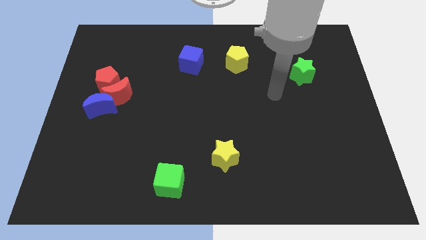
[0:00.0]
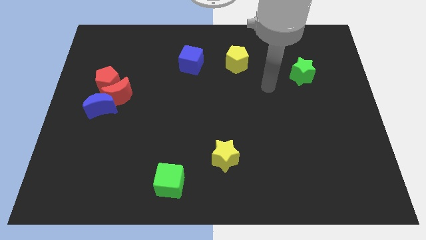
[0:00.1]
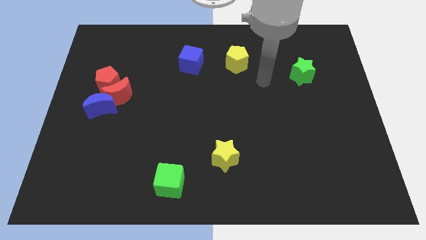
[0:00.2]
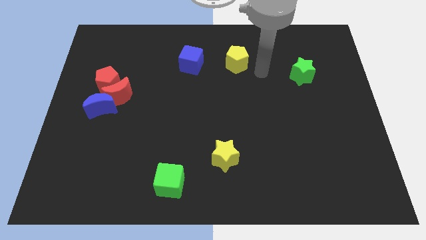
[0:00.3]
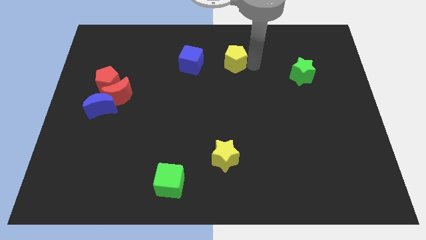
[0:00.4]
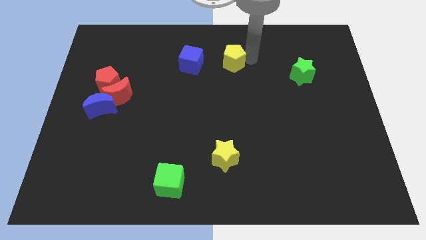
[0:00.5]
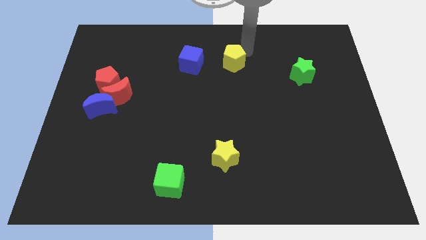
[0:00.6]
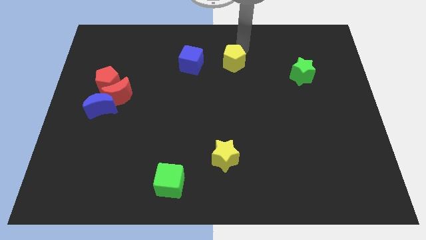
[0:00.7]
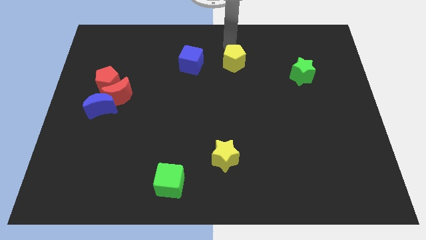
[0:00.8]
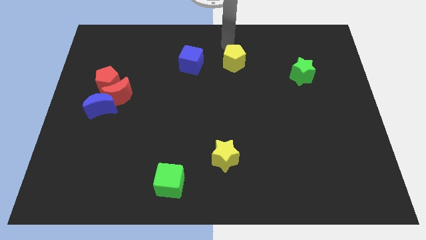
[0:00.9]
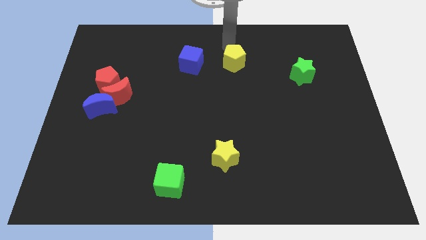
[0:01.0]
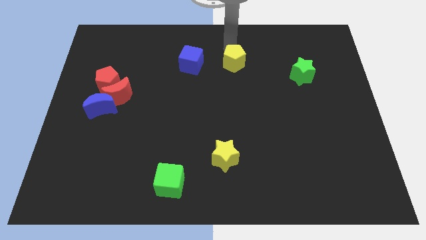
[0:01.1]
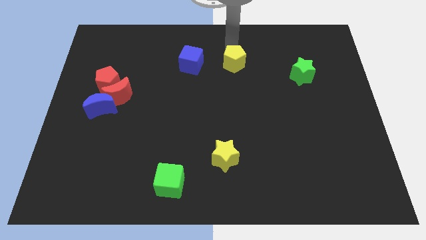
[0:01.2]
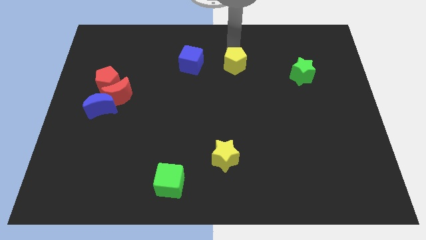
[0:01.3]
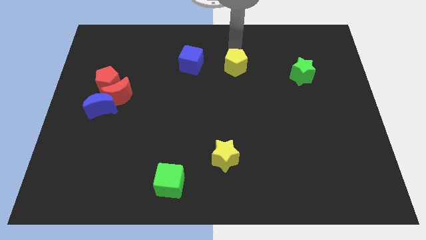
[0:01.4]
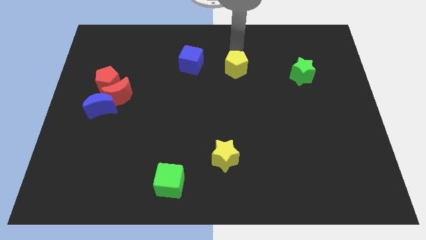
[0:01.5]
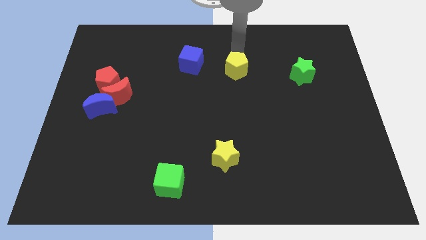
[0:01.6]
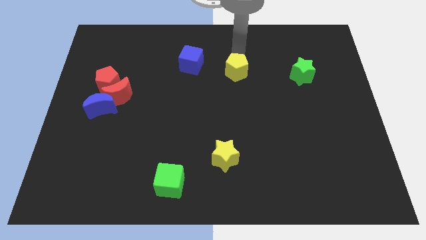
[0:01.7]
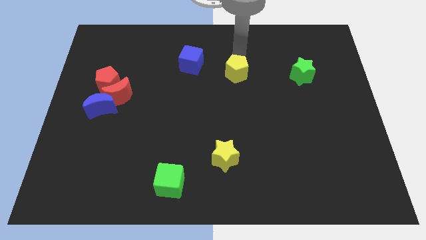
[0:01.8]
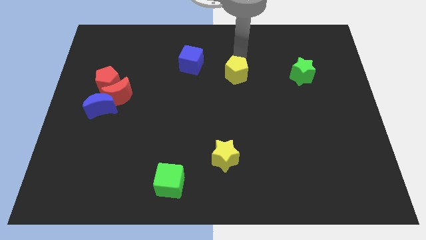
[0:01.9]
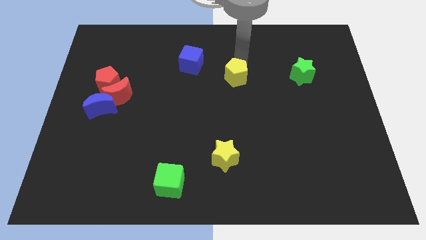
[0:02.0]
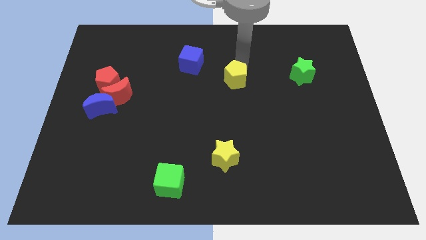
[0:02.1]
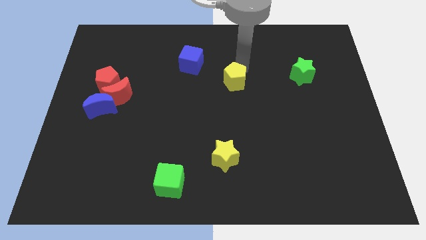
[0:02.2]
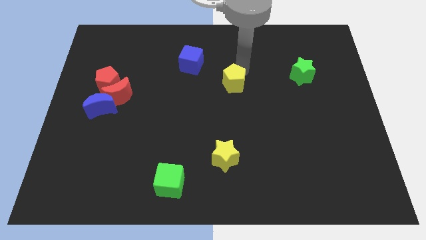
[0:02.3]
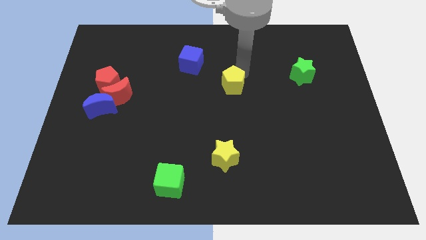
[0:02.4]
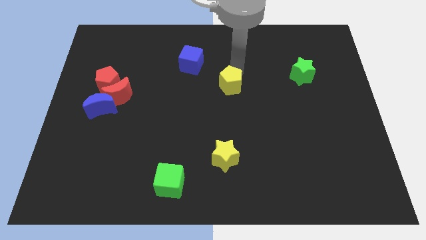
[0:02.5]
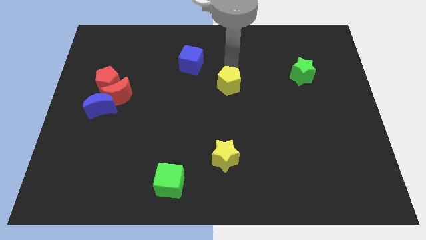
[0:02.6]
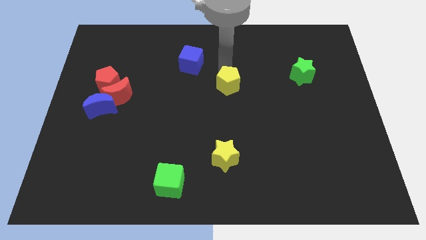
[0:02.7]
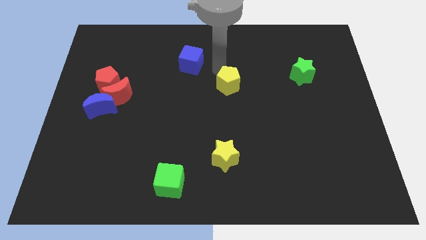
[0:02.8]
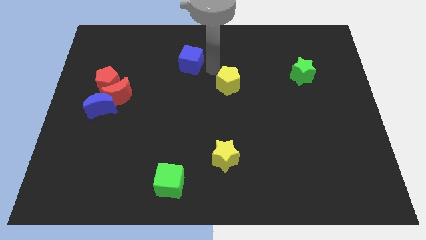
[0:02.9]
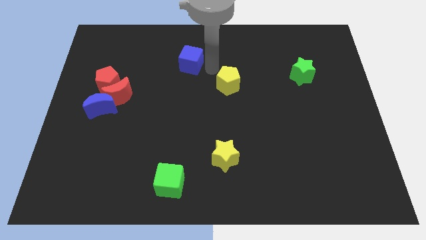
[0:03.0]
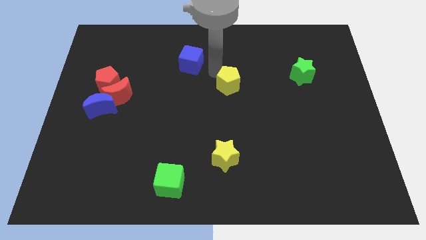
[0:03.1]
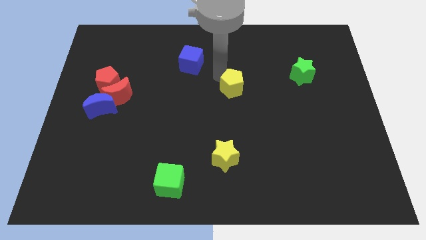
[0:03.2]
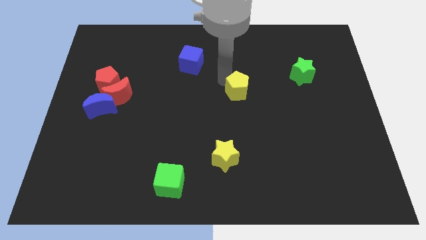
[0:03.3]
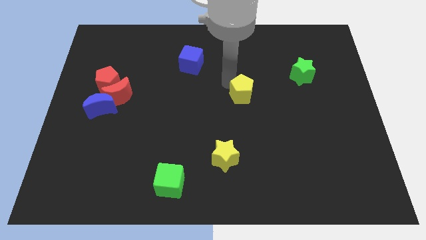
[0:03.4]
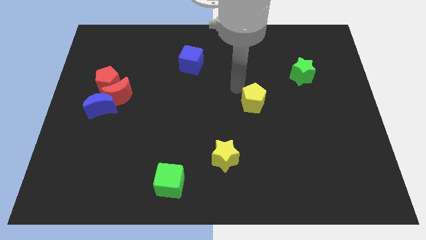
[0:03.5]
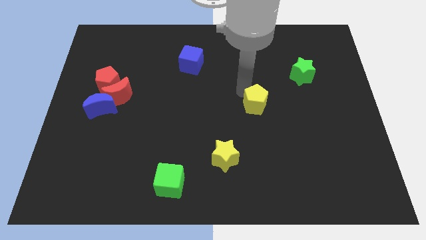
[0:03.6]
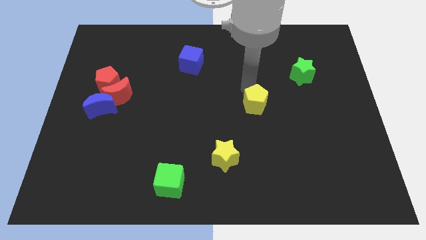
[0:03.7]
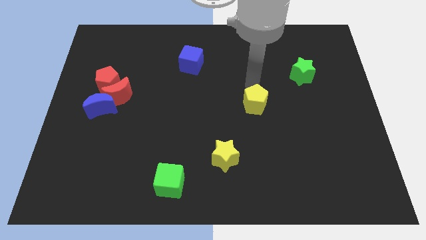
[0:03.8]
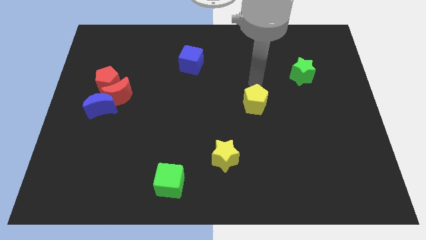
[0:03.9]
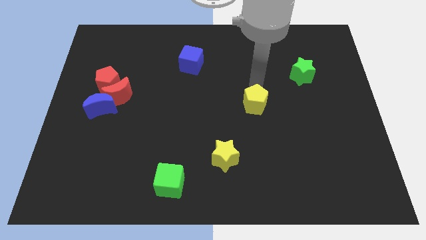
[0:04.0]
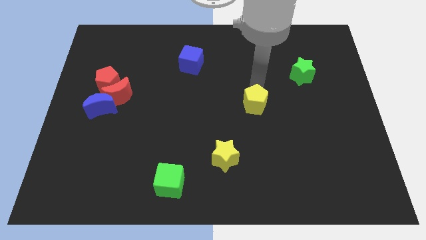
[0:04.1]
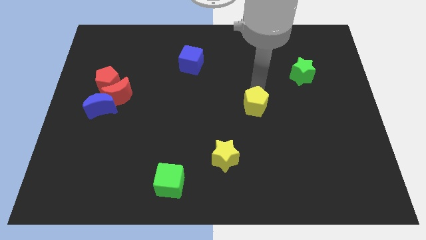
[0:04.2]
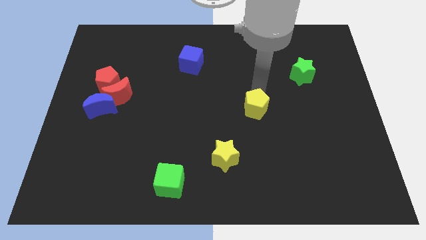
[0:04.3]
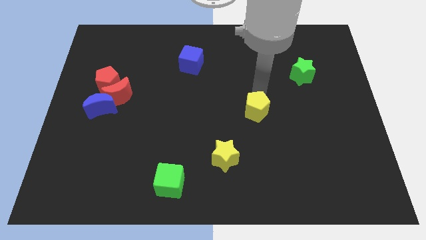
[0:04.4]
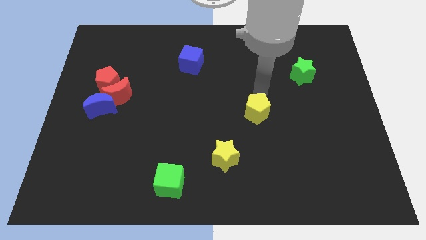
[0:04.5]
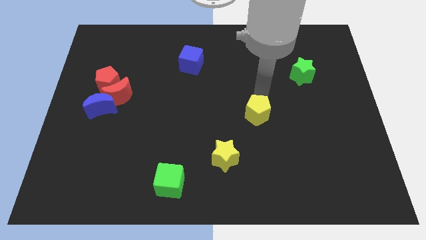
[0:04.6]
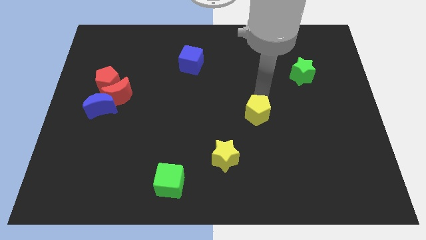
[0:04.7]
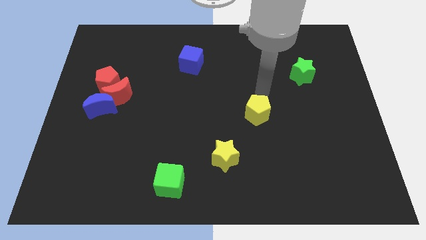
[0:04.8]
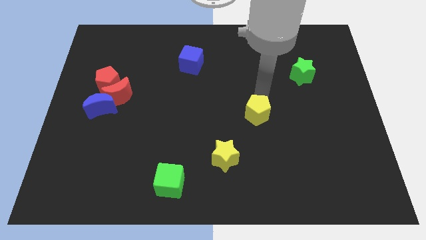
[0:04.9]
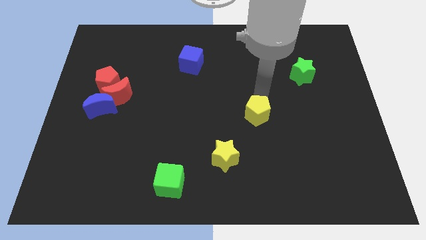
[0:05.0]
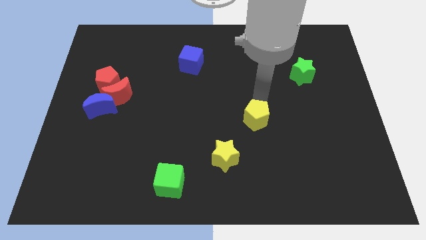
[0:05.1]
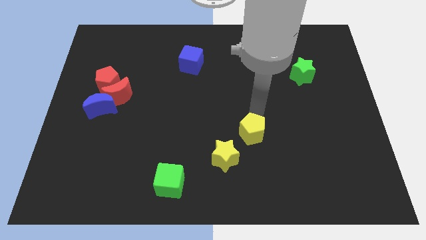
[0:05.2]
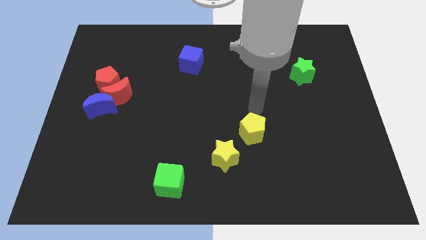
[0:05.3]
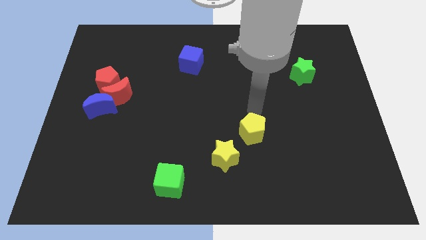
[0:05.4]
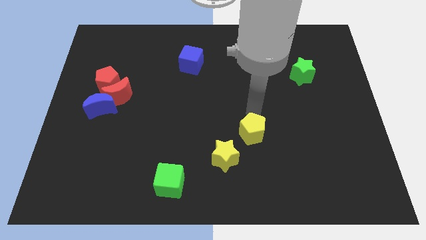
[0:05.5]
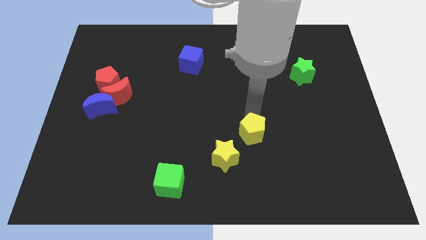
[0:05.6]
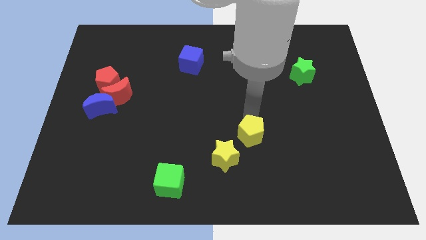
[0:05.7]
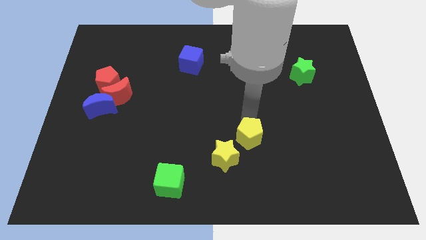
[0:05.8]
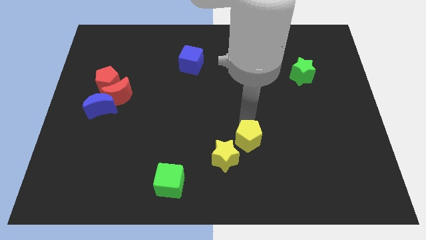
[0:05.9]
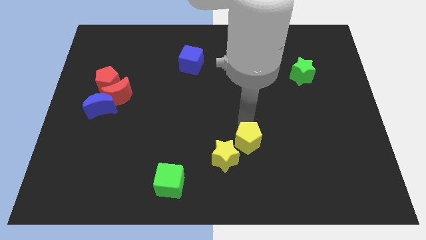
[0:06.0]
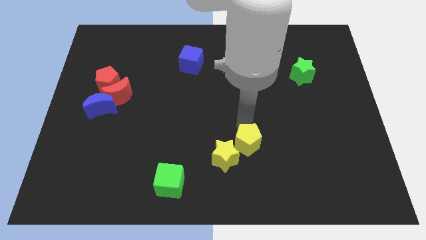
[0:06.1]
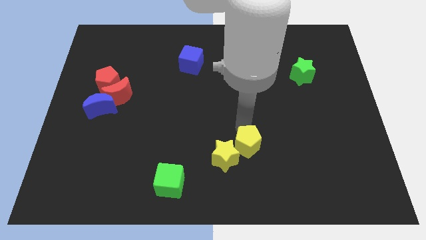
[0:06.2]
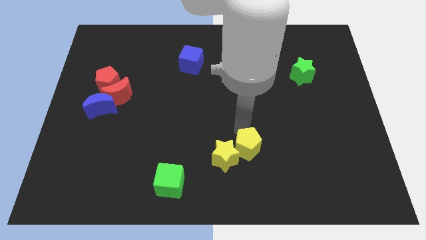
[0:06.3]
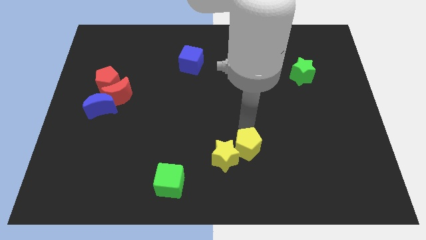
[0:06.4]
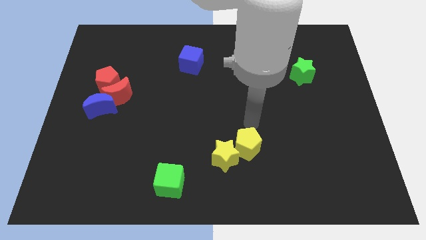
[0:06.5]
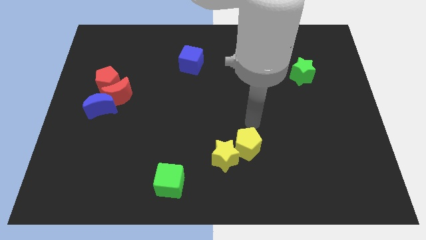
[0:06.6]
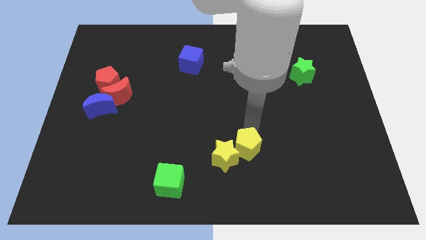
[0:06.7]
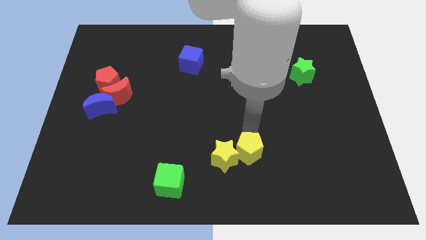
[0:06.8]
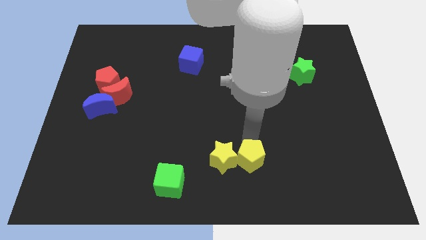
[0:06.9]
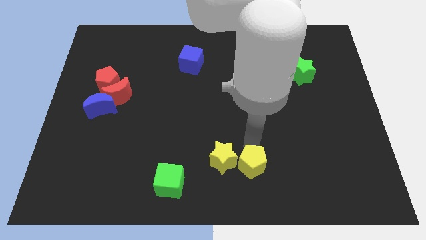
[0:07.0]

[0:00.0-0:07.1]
slide the yellow pentagon to the bottom
